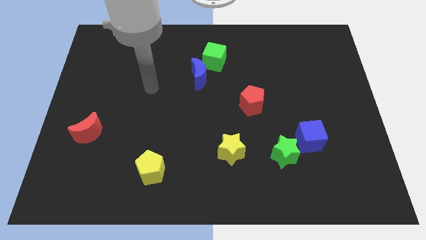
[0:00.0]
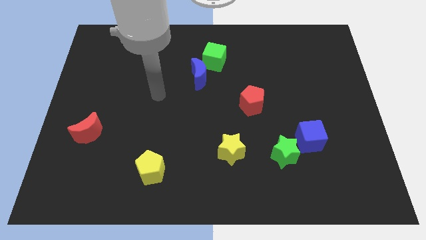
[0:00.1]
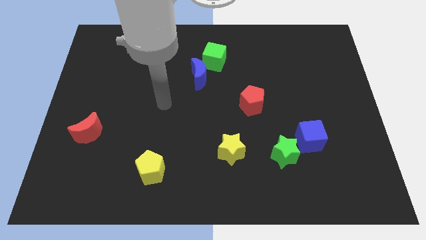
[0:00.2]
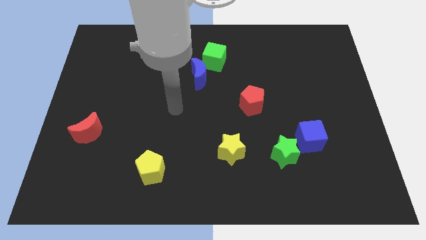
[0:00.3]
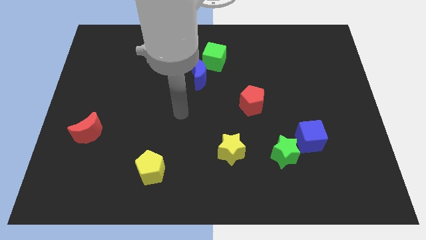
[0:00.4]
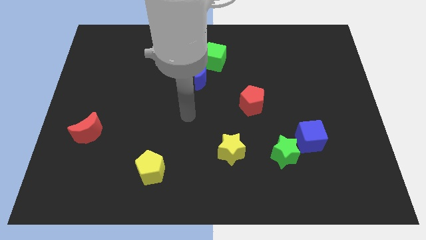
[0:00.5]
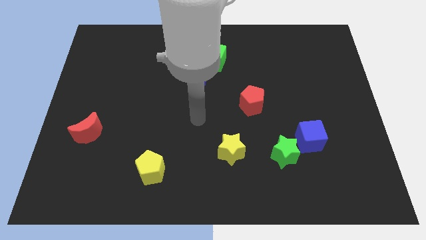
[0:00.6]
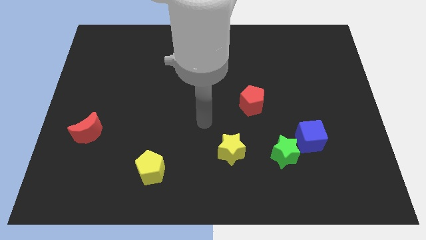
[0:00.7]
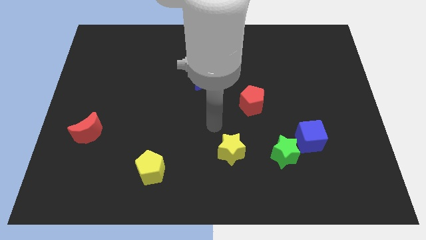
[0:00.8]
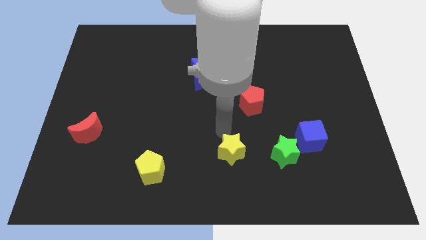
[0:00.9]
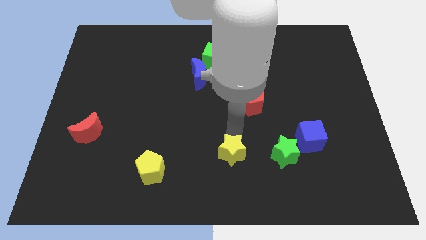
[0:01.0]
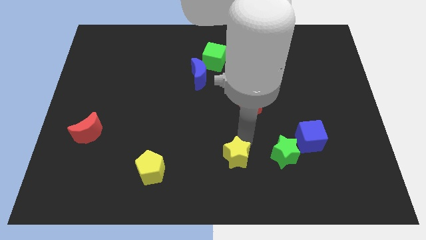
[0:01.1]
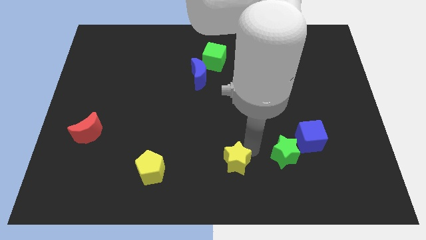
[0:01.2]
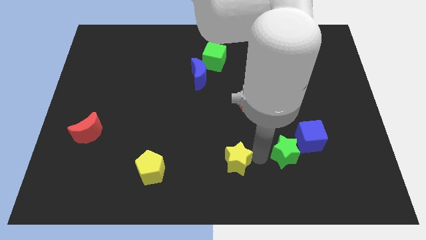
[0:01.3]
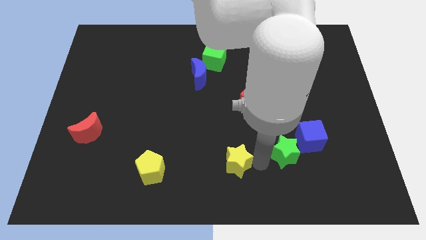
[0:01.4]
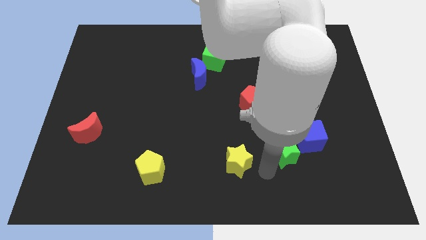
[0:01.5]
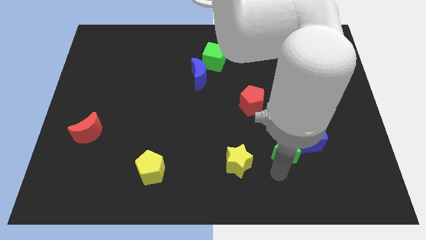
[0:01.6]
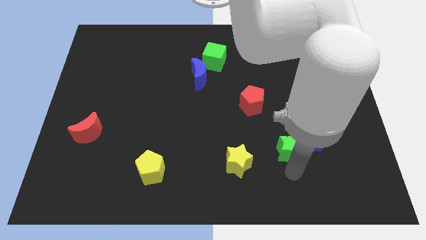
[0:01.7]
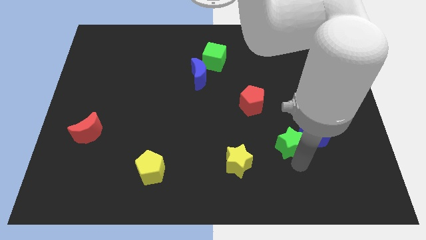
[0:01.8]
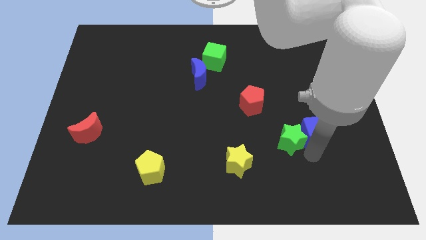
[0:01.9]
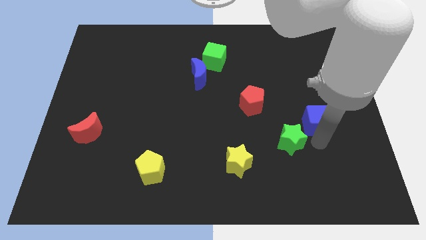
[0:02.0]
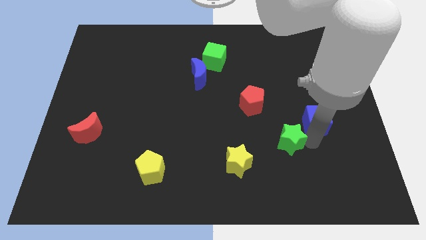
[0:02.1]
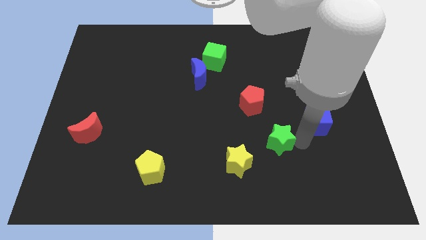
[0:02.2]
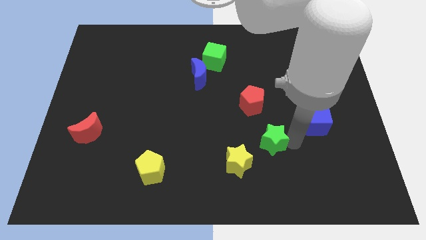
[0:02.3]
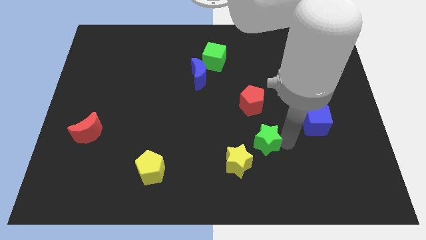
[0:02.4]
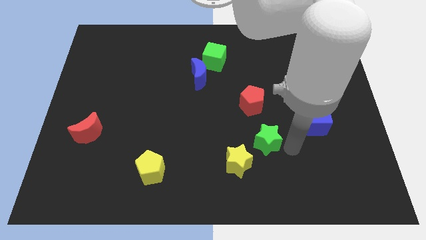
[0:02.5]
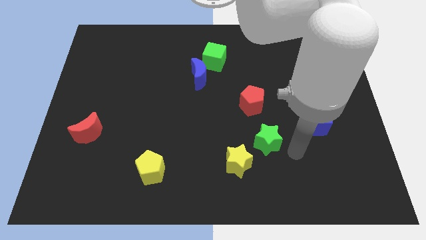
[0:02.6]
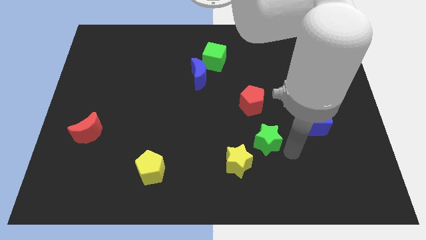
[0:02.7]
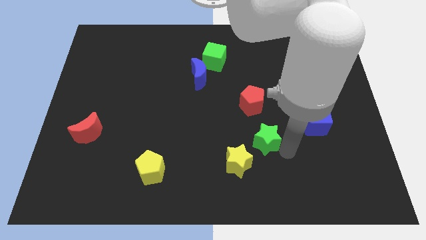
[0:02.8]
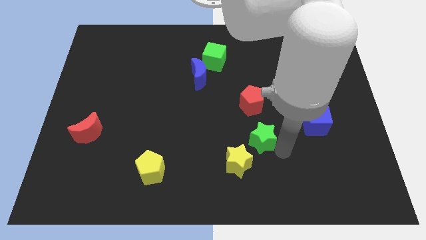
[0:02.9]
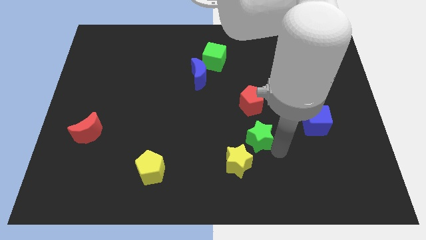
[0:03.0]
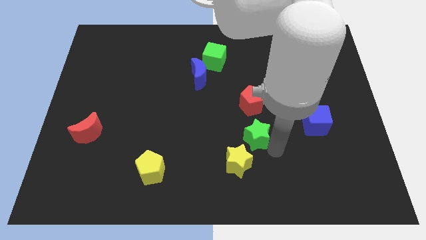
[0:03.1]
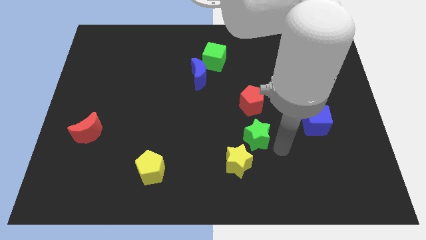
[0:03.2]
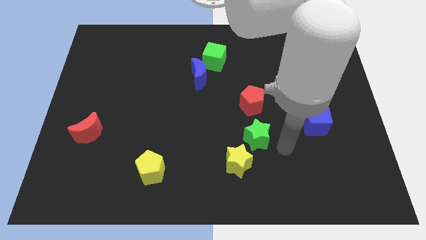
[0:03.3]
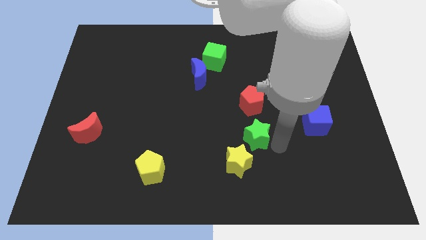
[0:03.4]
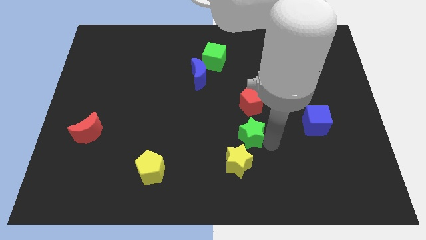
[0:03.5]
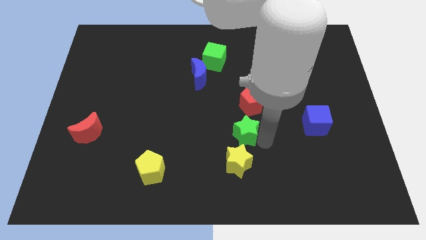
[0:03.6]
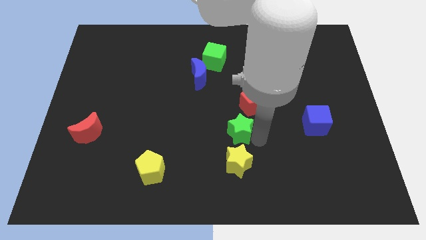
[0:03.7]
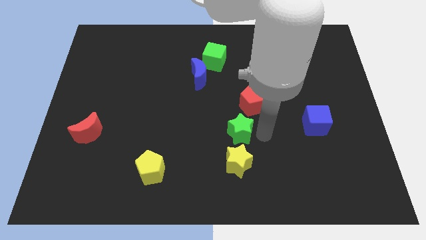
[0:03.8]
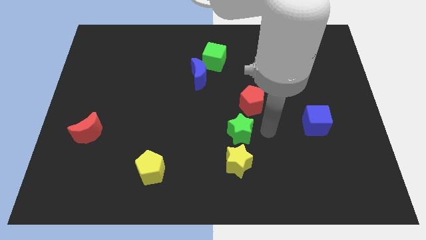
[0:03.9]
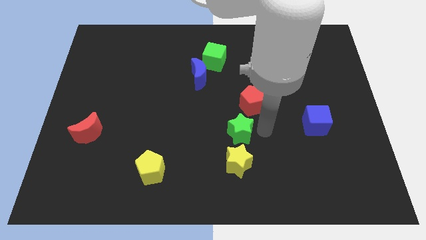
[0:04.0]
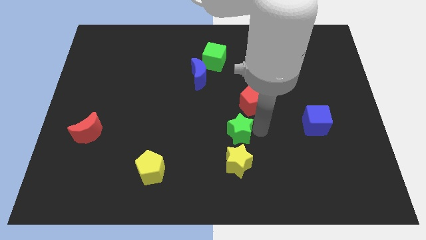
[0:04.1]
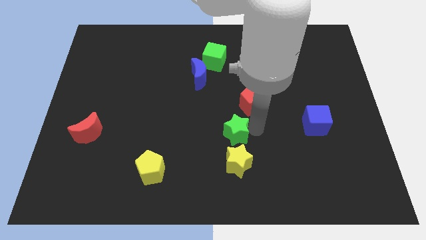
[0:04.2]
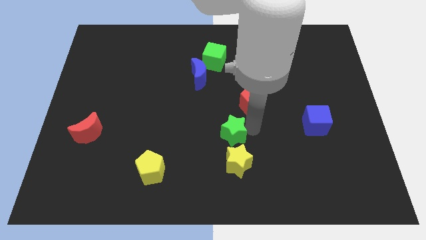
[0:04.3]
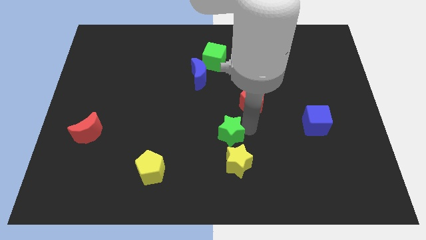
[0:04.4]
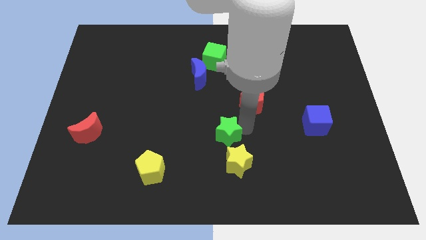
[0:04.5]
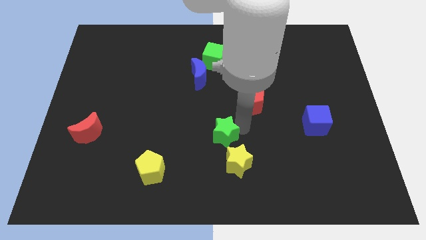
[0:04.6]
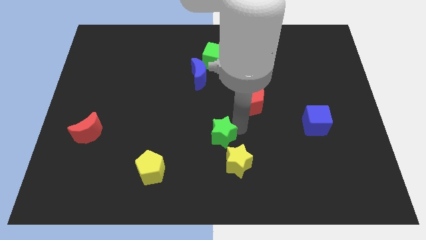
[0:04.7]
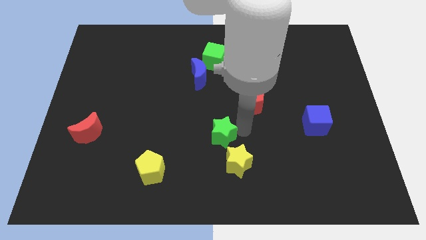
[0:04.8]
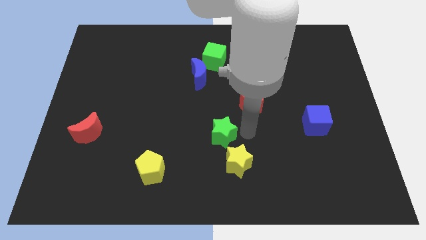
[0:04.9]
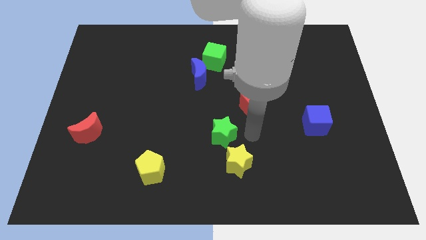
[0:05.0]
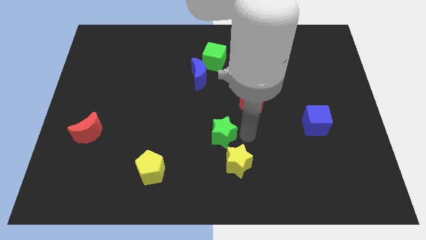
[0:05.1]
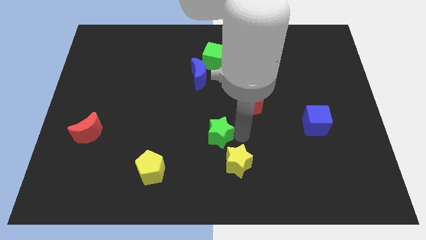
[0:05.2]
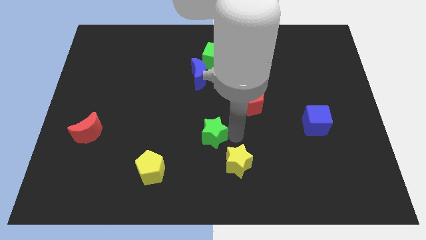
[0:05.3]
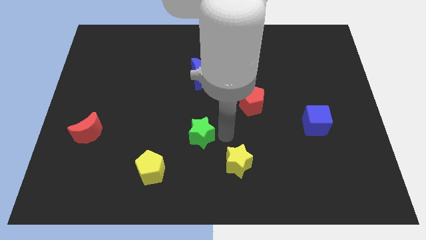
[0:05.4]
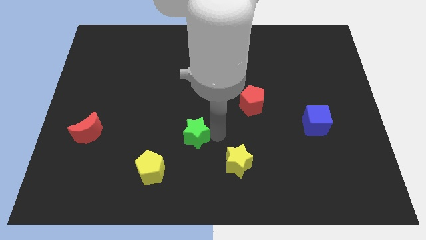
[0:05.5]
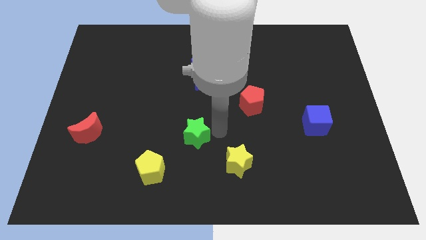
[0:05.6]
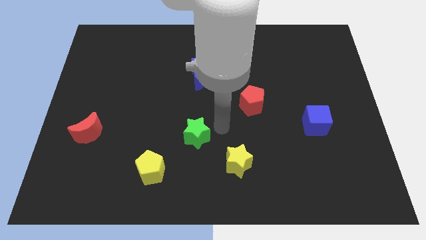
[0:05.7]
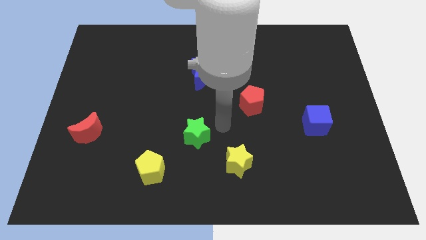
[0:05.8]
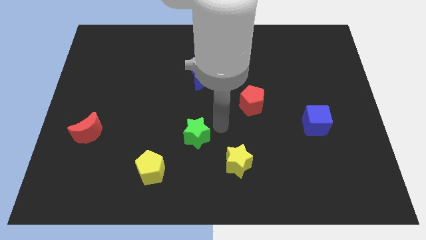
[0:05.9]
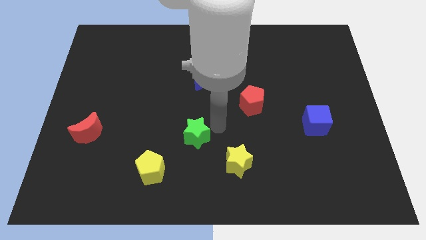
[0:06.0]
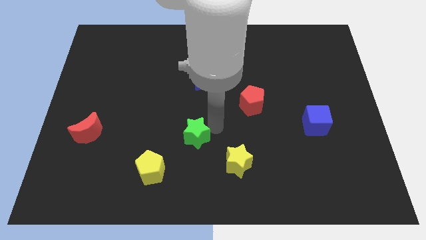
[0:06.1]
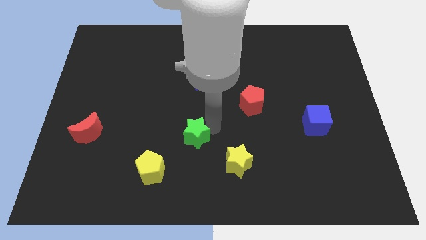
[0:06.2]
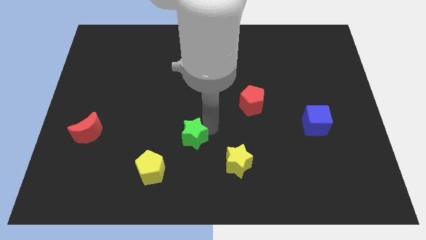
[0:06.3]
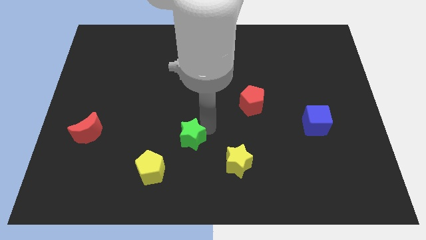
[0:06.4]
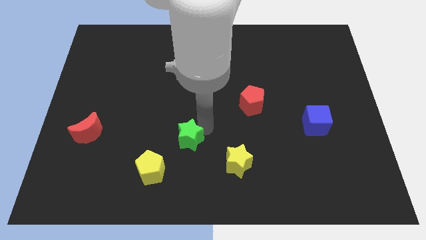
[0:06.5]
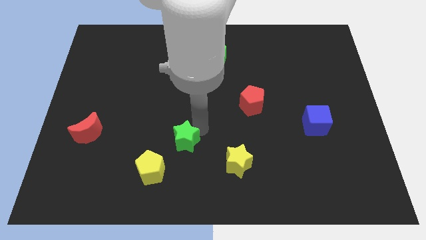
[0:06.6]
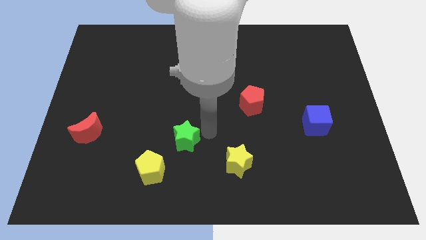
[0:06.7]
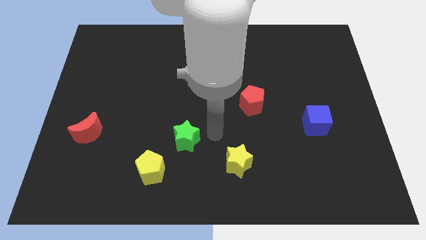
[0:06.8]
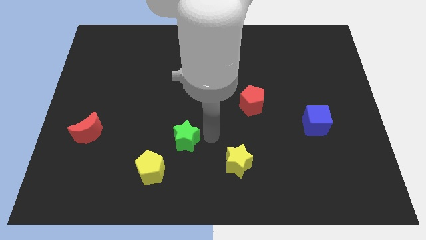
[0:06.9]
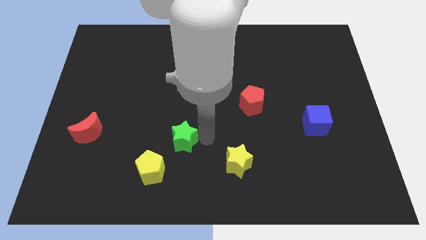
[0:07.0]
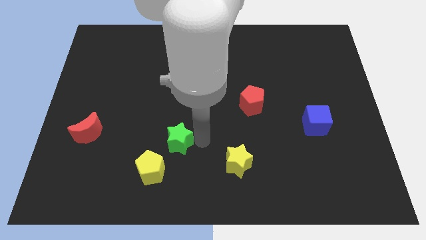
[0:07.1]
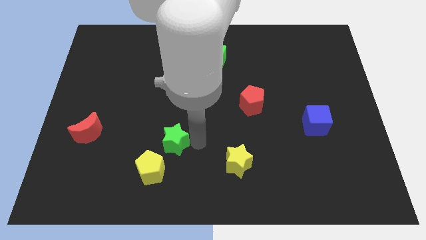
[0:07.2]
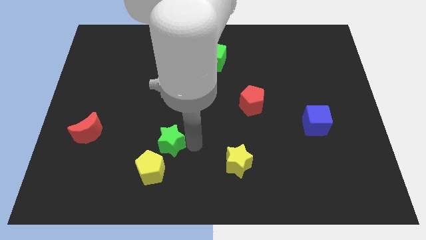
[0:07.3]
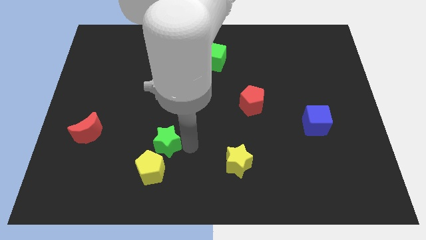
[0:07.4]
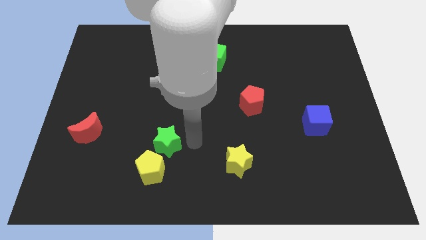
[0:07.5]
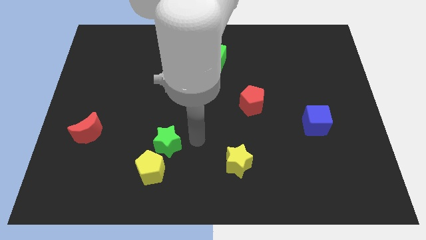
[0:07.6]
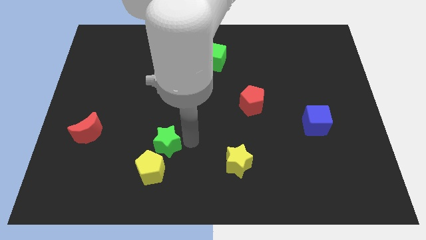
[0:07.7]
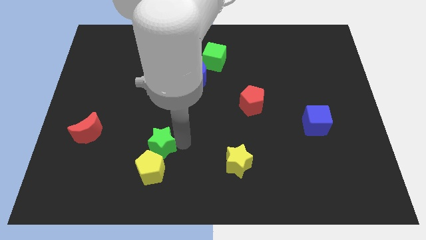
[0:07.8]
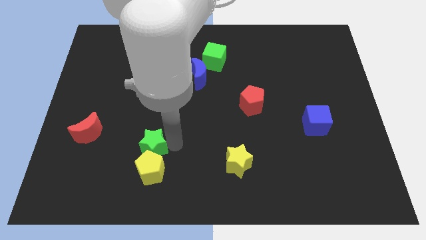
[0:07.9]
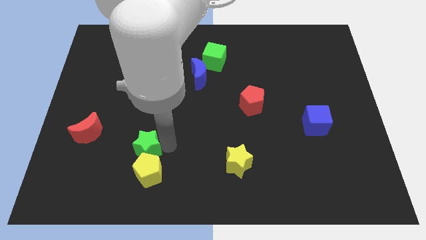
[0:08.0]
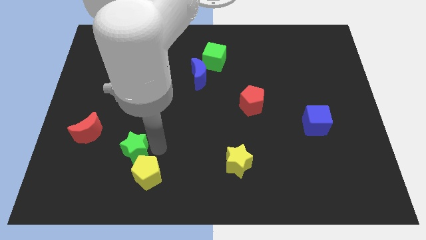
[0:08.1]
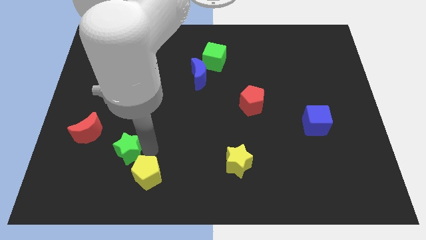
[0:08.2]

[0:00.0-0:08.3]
move the green star to the bottom right side of the red moon

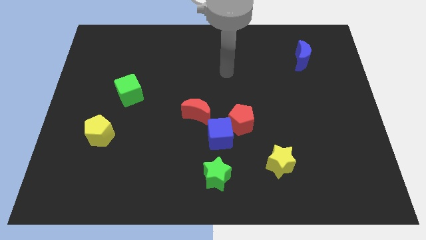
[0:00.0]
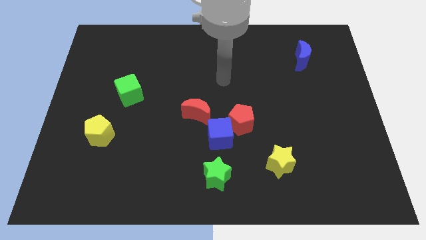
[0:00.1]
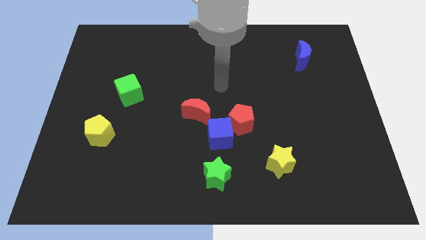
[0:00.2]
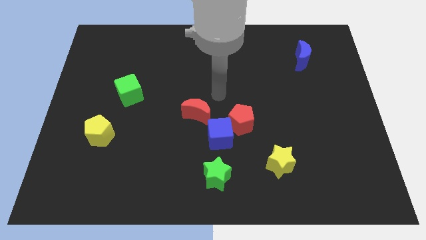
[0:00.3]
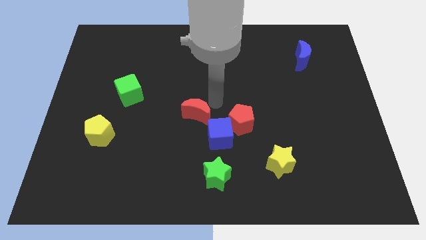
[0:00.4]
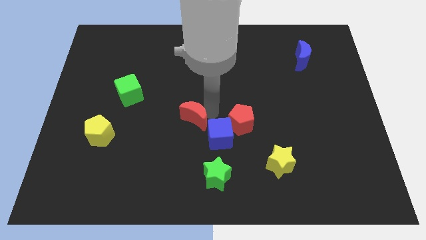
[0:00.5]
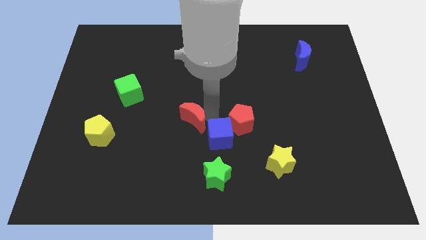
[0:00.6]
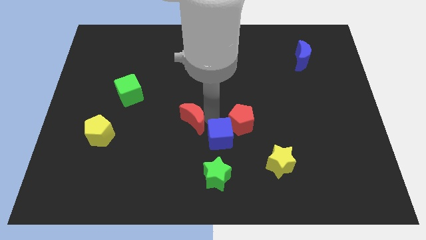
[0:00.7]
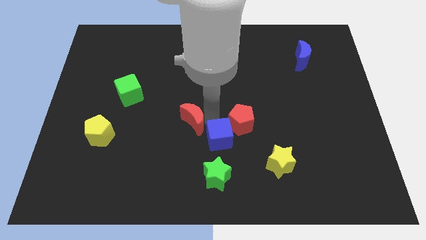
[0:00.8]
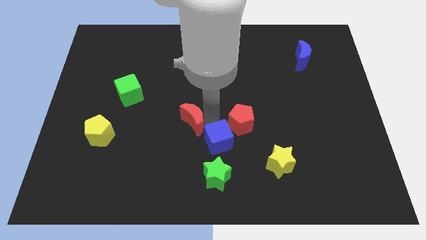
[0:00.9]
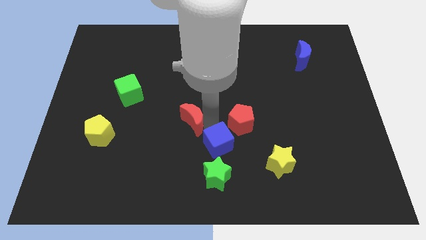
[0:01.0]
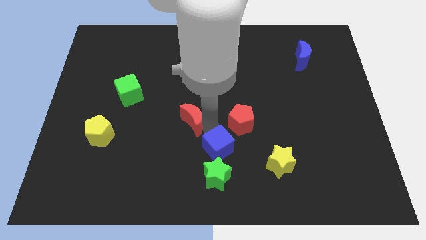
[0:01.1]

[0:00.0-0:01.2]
put the blue cube left of the yellow star
